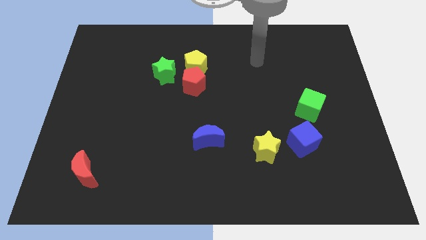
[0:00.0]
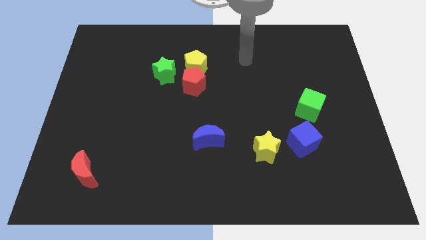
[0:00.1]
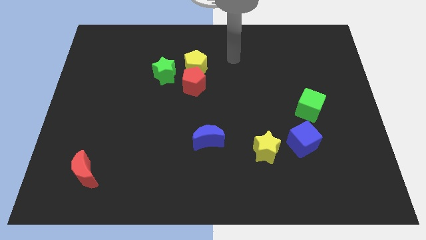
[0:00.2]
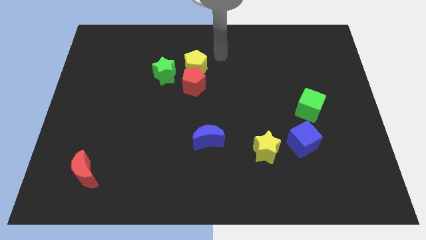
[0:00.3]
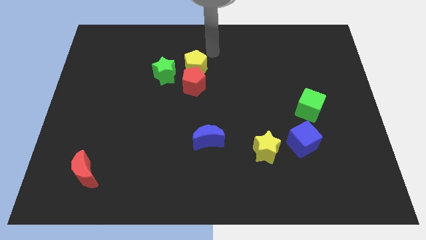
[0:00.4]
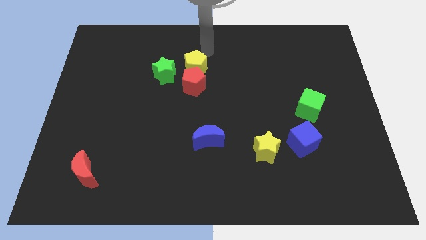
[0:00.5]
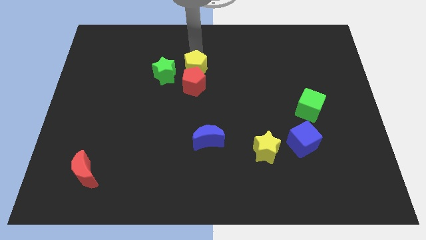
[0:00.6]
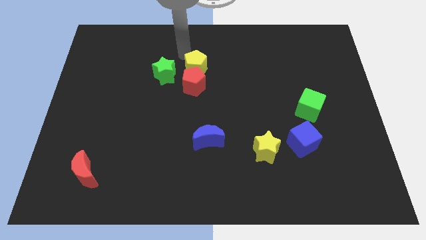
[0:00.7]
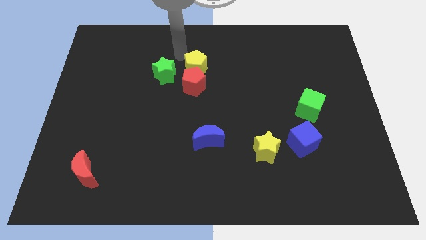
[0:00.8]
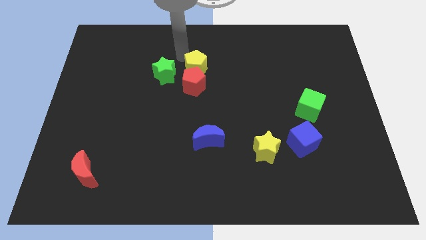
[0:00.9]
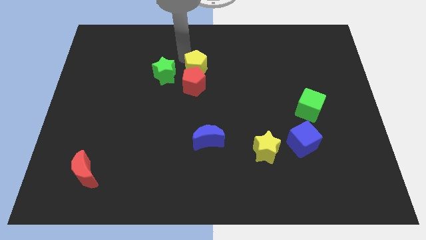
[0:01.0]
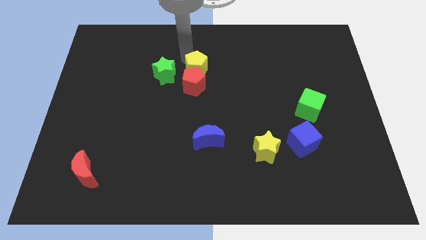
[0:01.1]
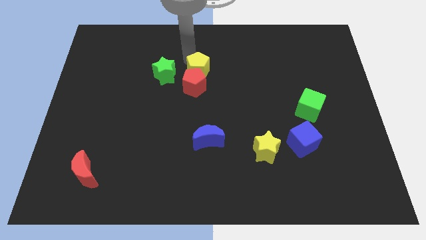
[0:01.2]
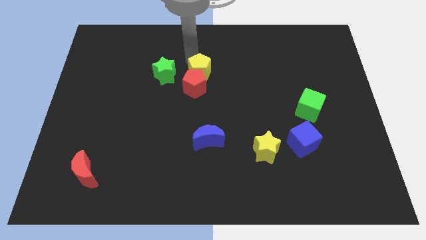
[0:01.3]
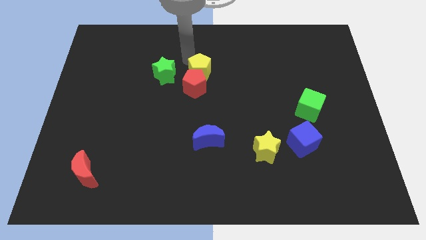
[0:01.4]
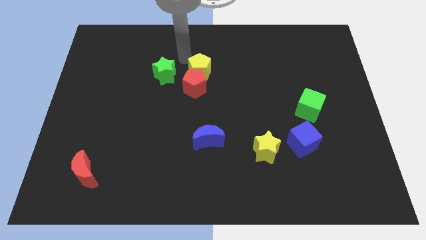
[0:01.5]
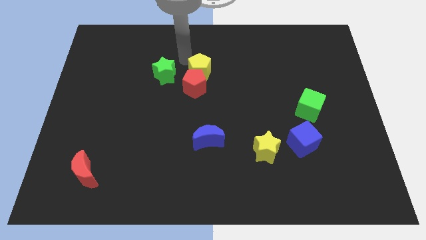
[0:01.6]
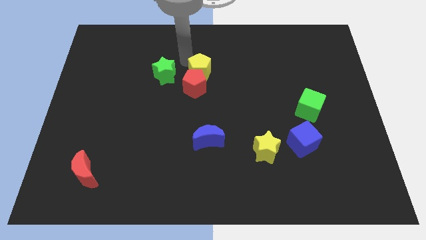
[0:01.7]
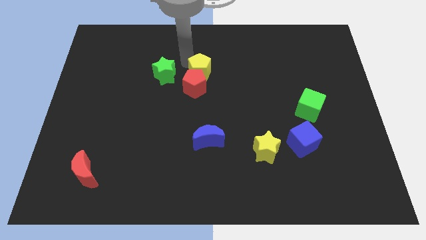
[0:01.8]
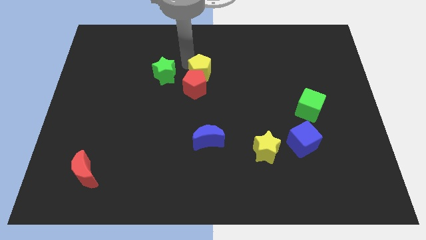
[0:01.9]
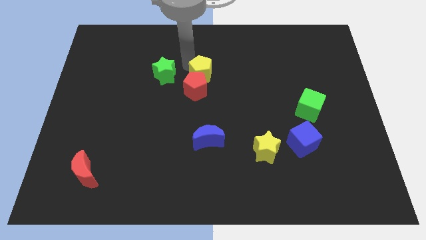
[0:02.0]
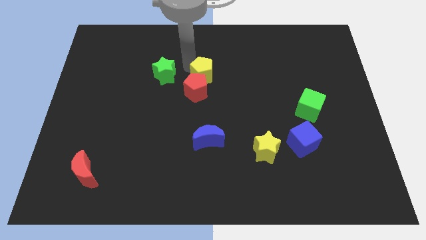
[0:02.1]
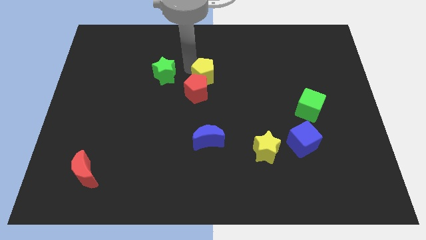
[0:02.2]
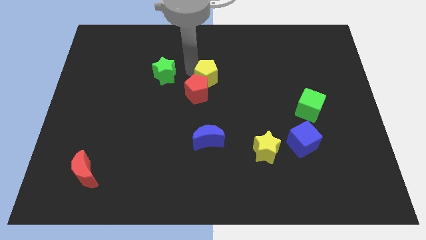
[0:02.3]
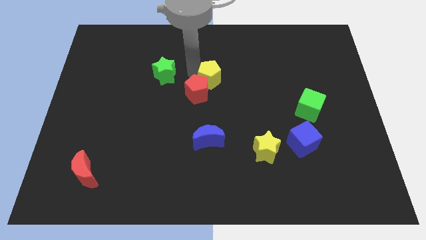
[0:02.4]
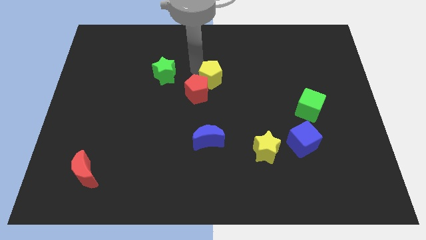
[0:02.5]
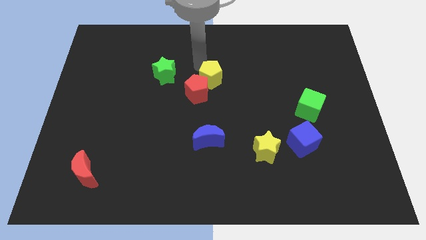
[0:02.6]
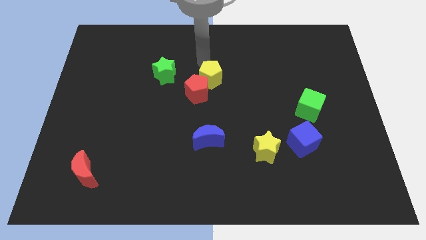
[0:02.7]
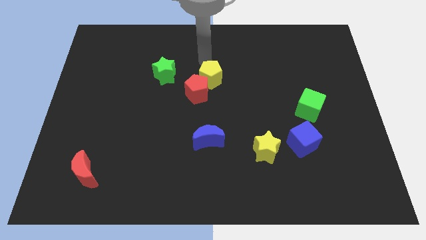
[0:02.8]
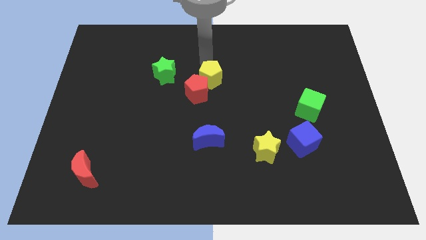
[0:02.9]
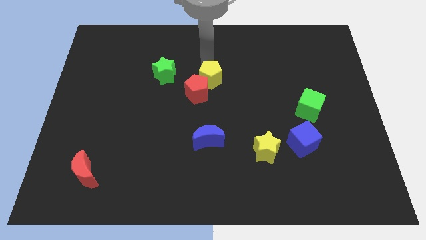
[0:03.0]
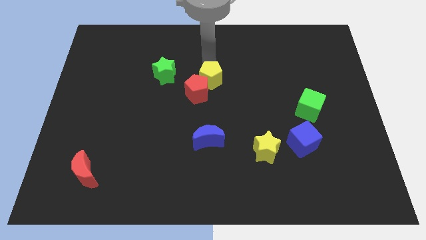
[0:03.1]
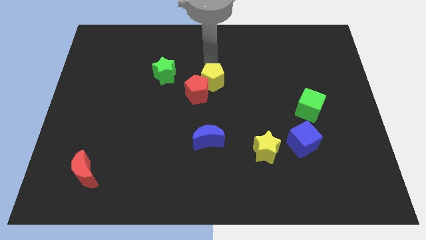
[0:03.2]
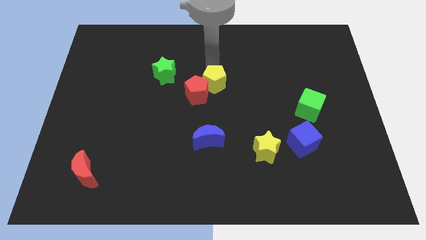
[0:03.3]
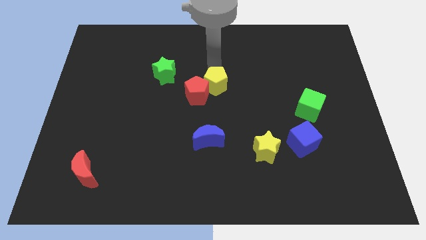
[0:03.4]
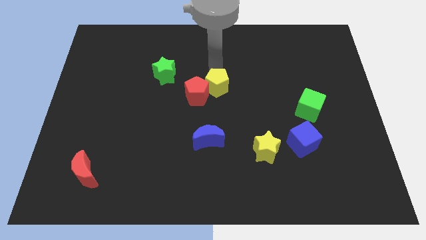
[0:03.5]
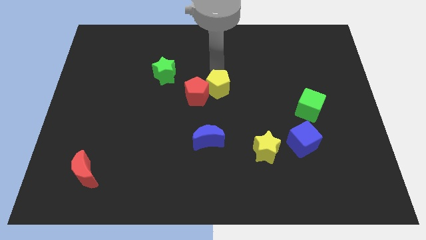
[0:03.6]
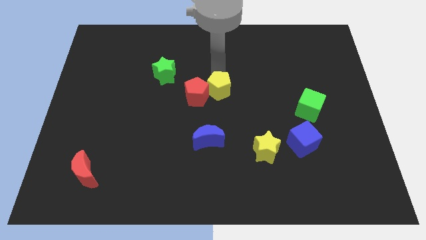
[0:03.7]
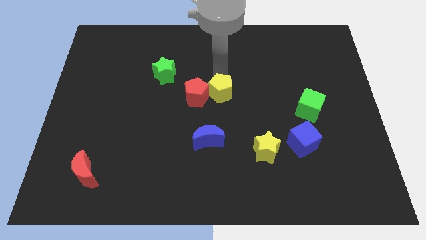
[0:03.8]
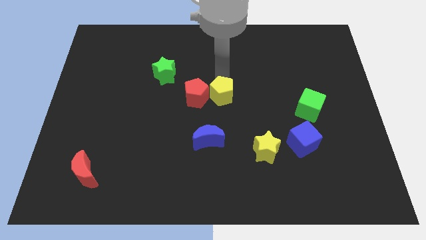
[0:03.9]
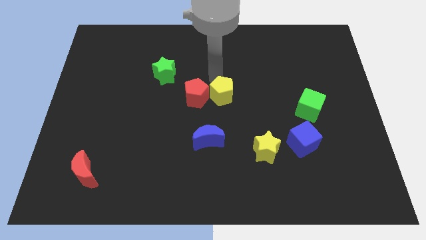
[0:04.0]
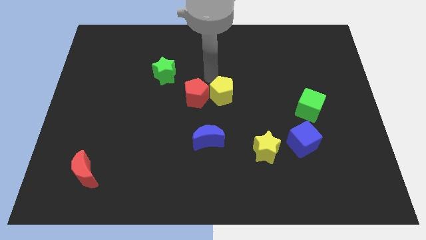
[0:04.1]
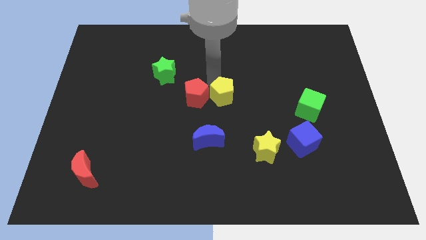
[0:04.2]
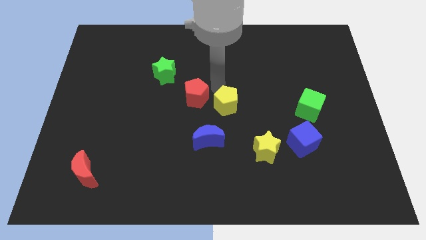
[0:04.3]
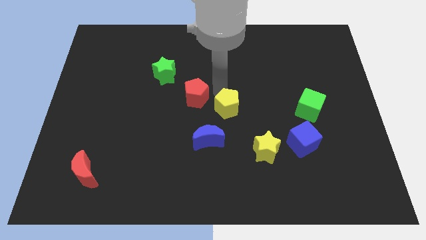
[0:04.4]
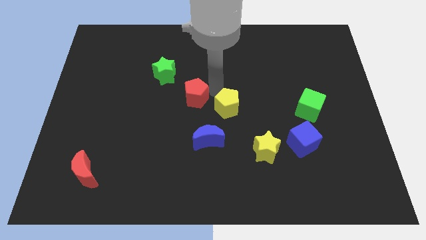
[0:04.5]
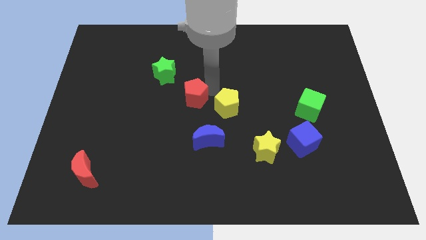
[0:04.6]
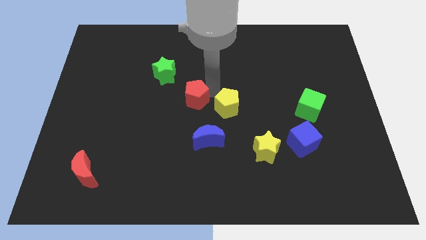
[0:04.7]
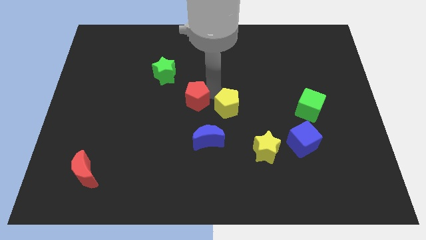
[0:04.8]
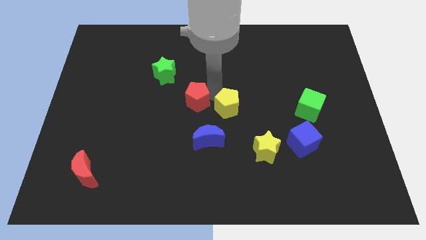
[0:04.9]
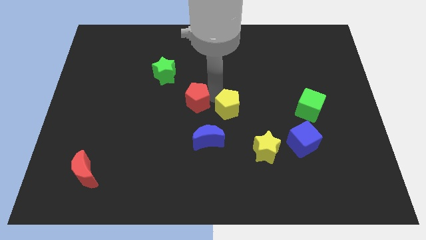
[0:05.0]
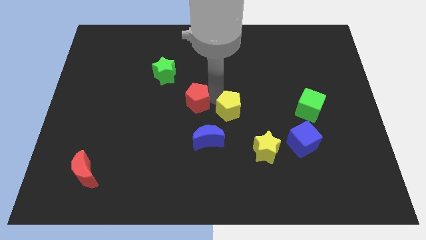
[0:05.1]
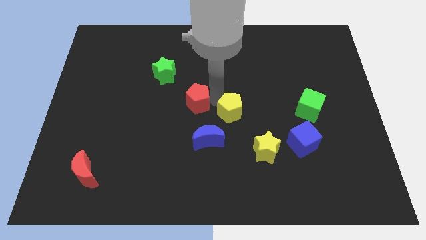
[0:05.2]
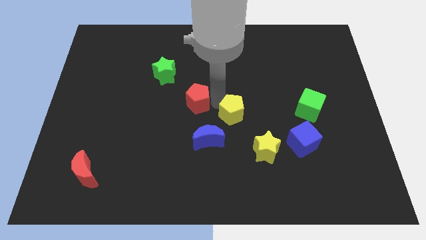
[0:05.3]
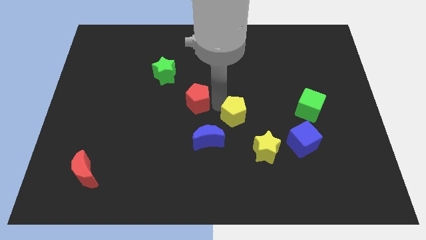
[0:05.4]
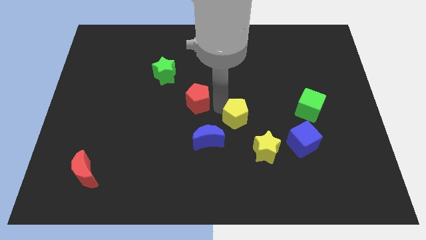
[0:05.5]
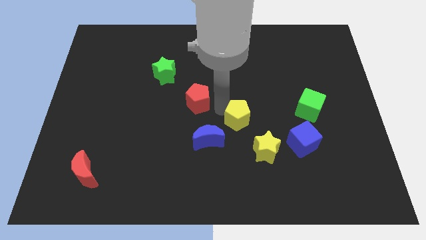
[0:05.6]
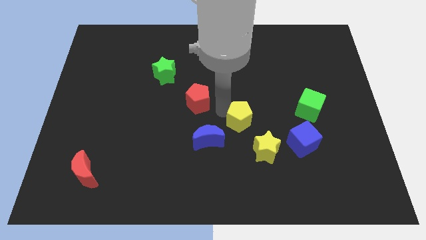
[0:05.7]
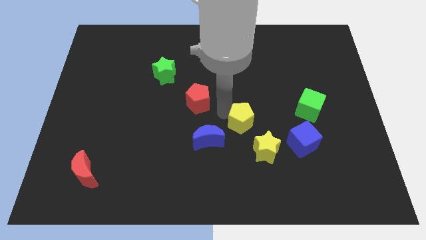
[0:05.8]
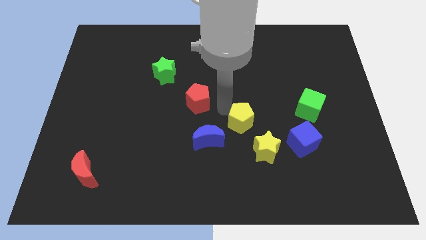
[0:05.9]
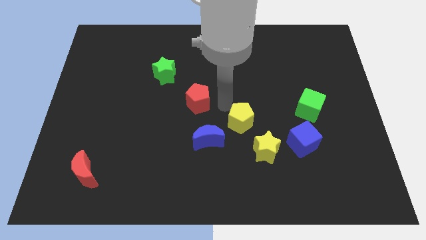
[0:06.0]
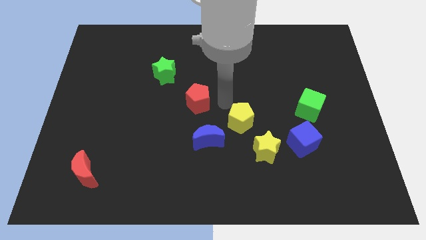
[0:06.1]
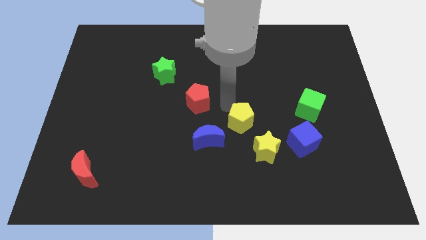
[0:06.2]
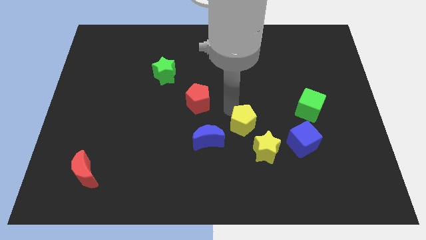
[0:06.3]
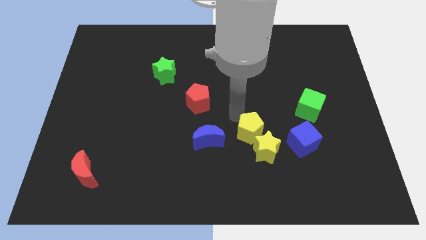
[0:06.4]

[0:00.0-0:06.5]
push the yellow pentagon towards the yellow star

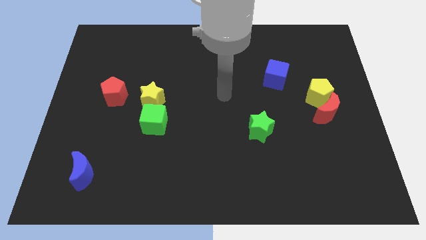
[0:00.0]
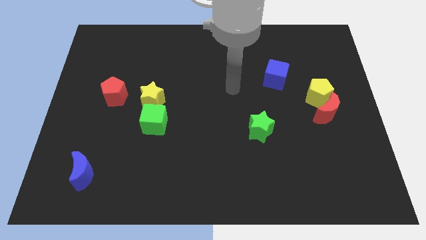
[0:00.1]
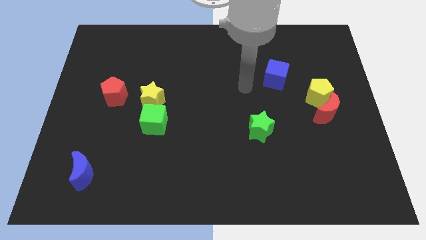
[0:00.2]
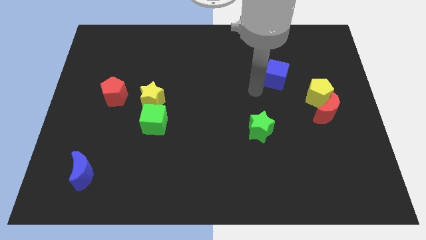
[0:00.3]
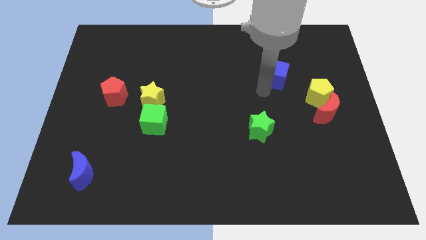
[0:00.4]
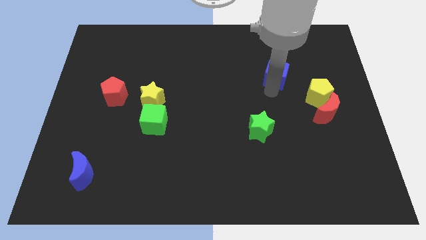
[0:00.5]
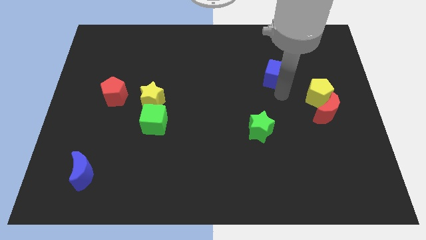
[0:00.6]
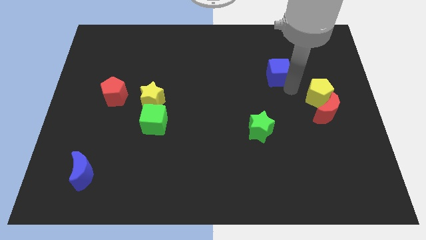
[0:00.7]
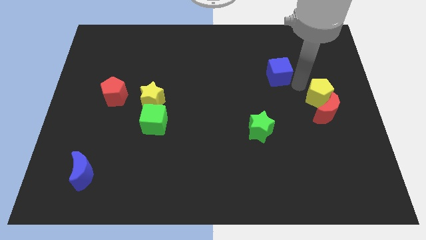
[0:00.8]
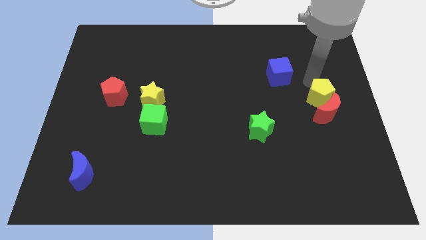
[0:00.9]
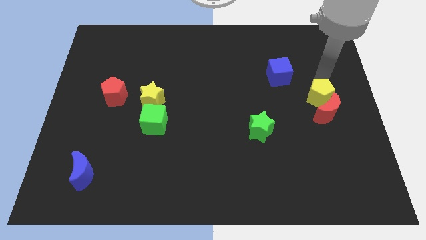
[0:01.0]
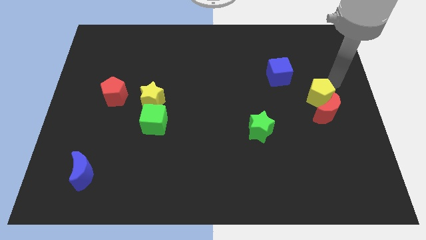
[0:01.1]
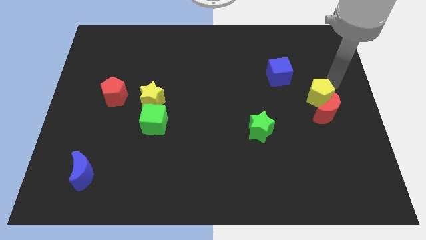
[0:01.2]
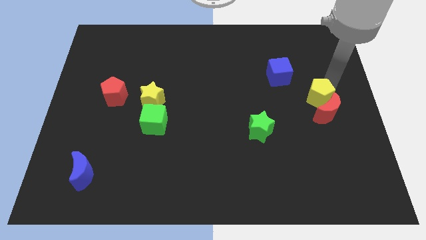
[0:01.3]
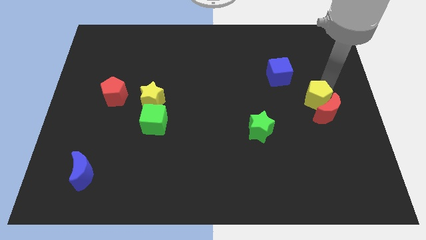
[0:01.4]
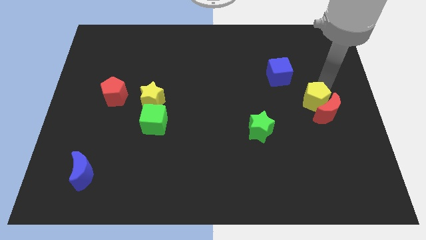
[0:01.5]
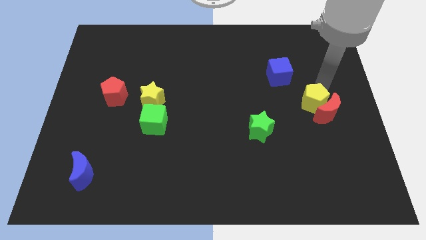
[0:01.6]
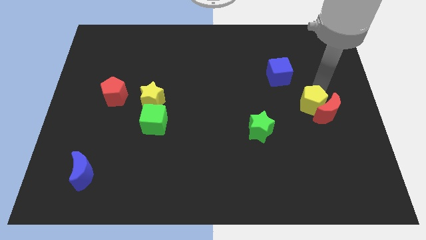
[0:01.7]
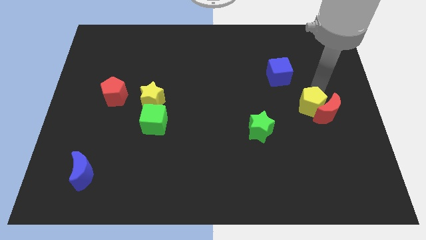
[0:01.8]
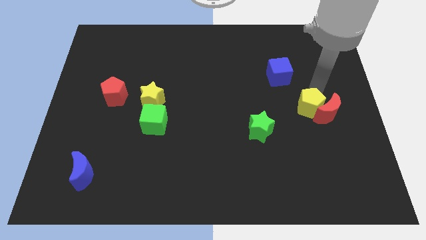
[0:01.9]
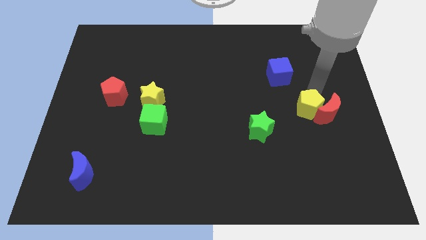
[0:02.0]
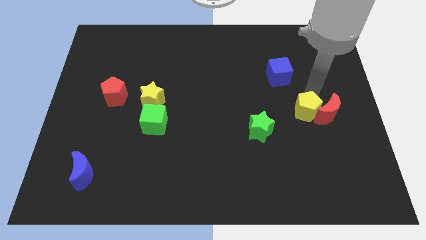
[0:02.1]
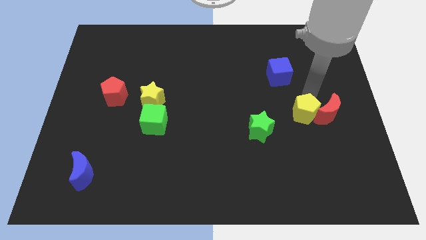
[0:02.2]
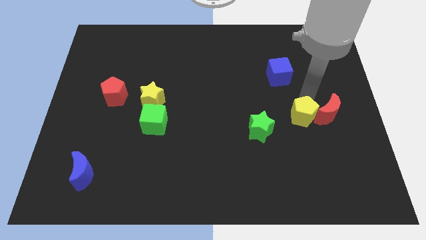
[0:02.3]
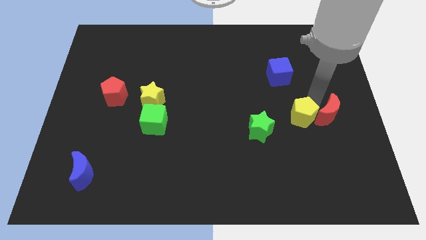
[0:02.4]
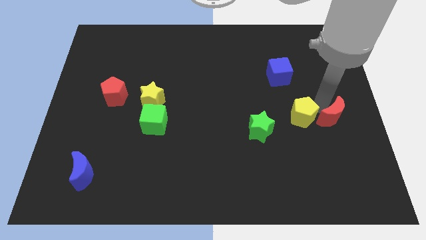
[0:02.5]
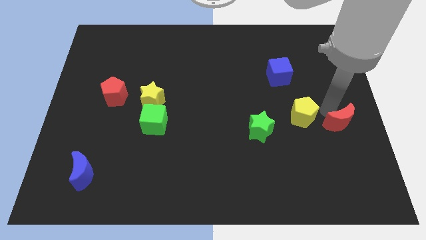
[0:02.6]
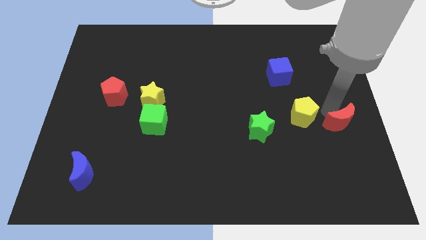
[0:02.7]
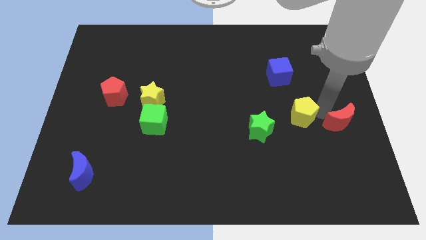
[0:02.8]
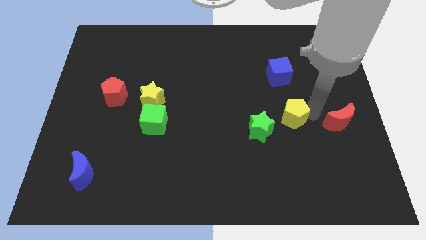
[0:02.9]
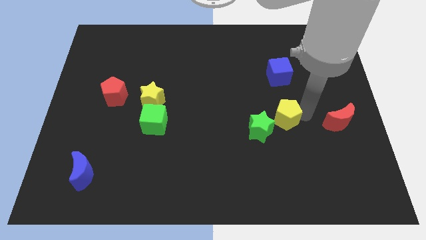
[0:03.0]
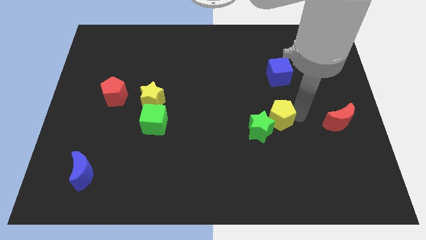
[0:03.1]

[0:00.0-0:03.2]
slide the yellow pentagon to the green star
